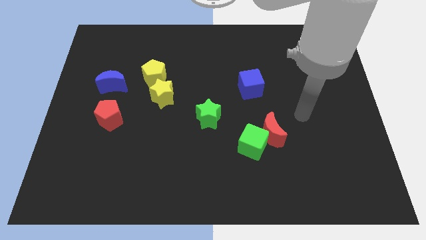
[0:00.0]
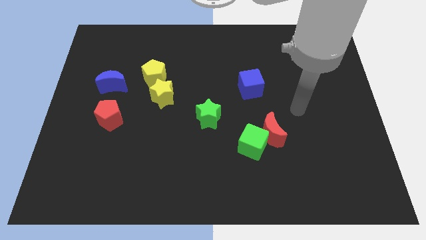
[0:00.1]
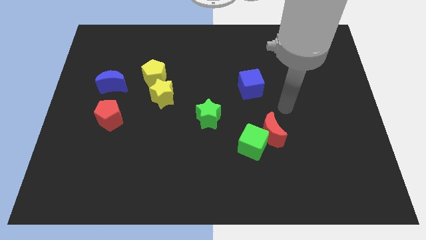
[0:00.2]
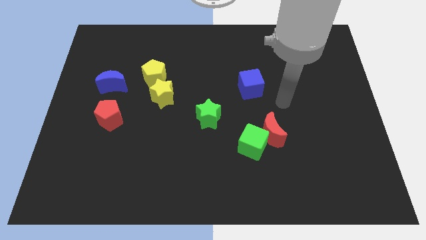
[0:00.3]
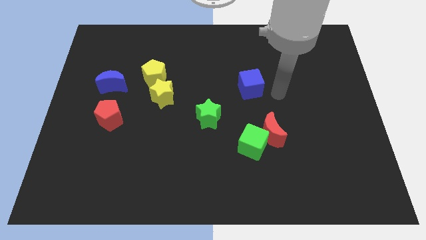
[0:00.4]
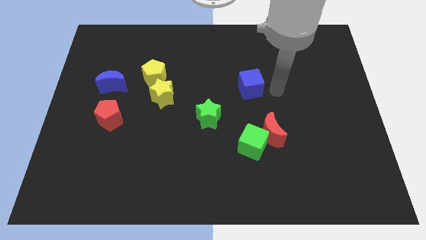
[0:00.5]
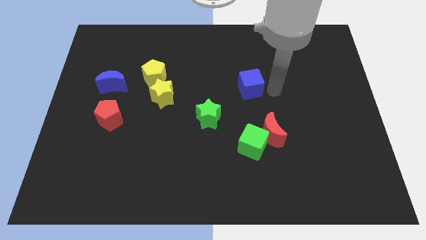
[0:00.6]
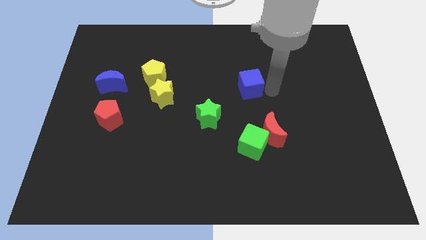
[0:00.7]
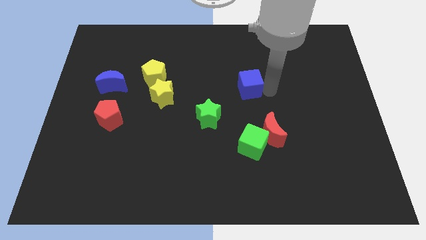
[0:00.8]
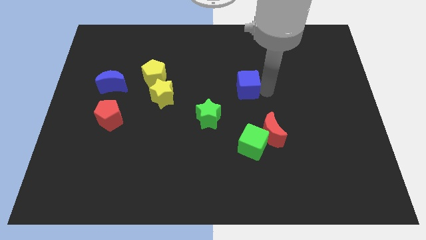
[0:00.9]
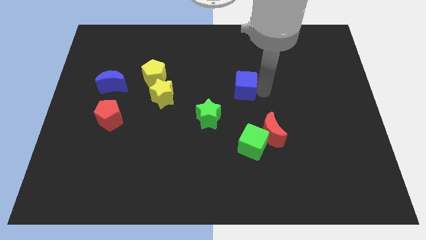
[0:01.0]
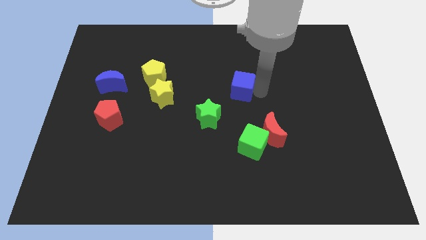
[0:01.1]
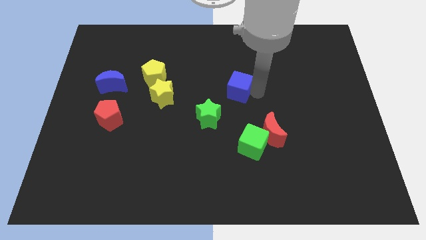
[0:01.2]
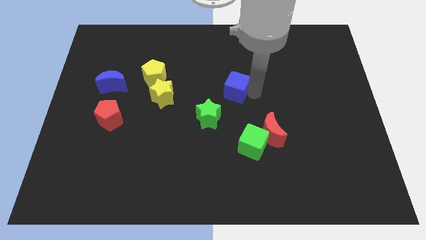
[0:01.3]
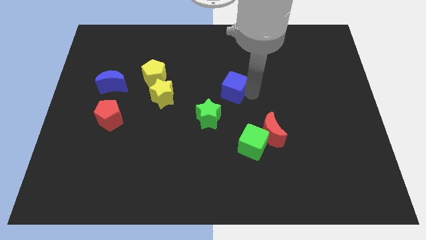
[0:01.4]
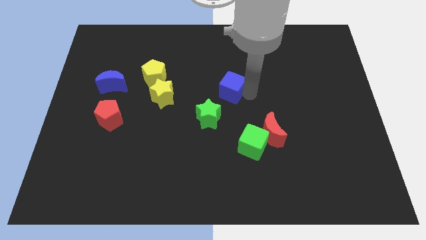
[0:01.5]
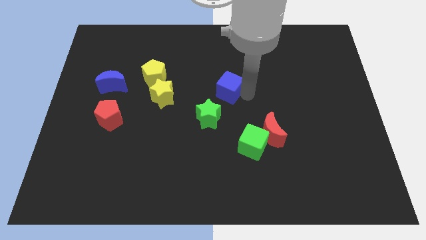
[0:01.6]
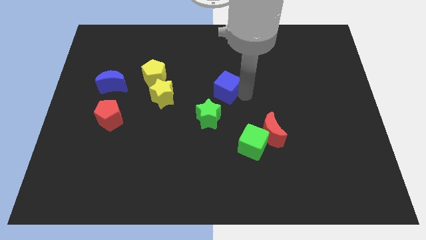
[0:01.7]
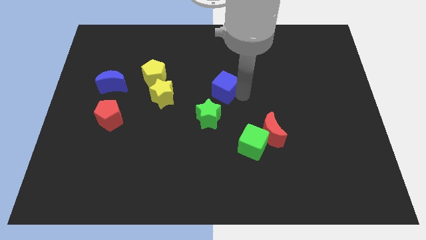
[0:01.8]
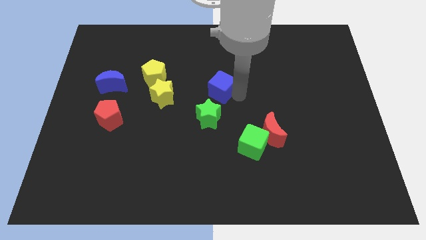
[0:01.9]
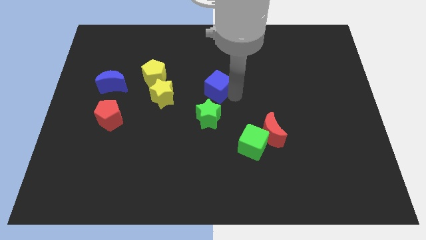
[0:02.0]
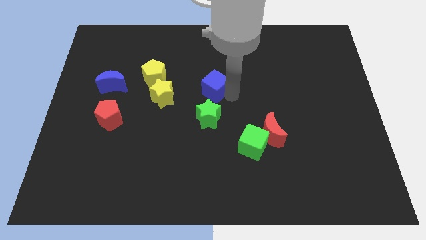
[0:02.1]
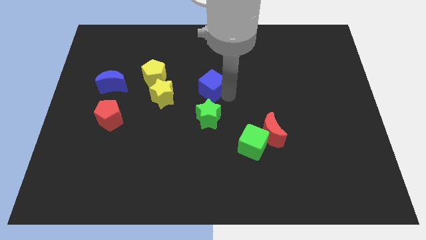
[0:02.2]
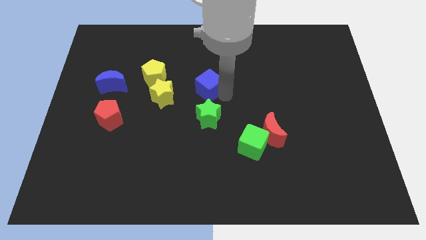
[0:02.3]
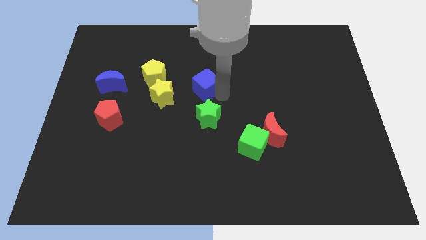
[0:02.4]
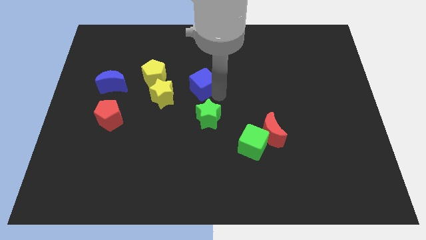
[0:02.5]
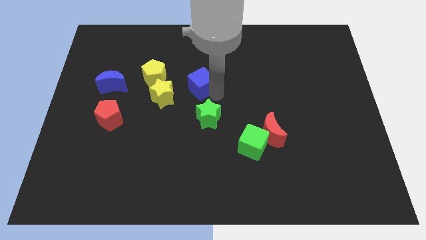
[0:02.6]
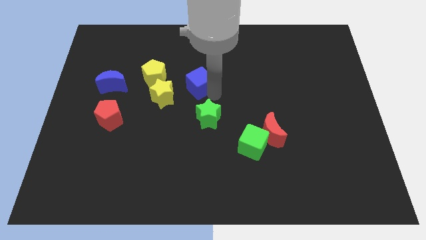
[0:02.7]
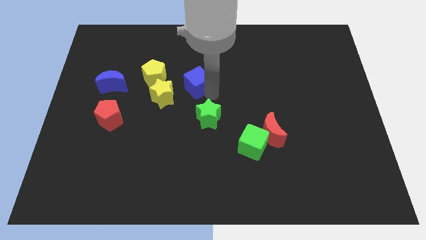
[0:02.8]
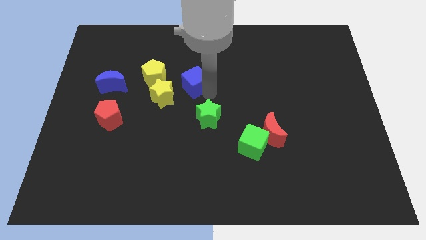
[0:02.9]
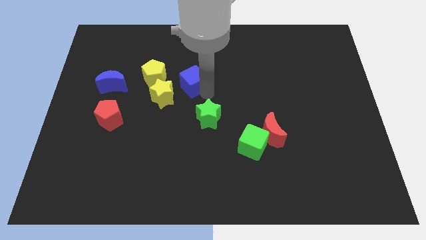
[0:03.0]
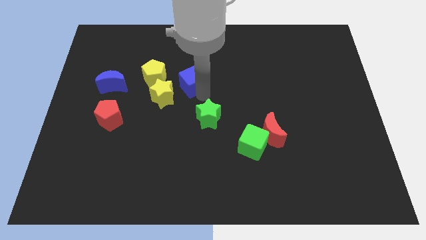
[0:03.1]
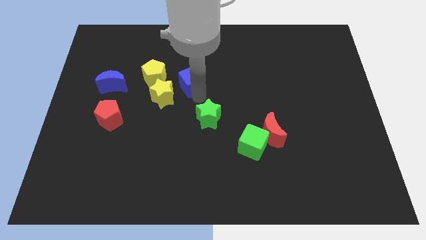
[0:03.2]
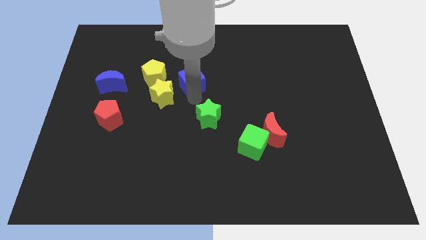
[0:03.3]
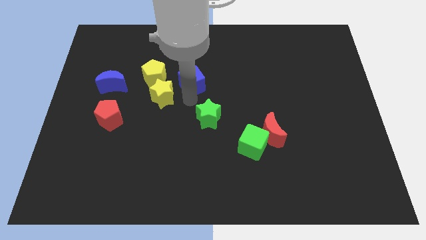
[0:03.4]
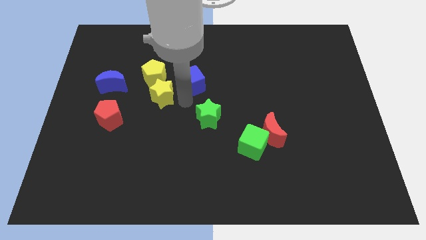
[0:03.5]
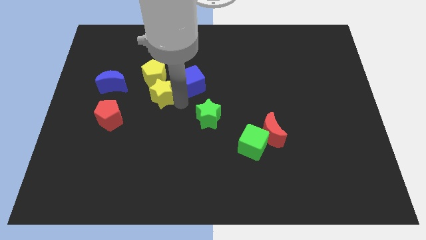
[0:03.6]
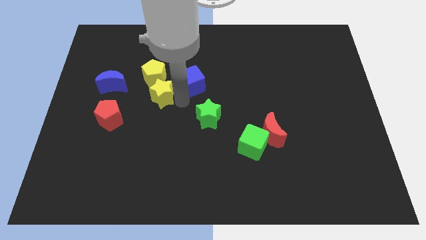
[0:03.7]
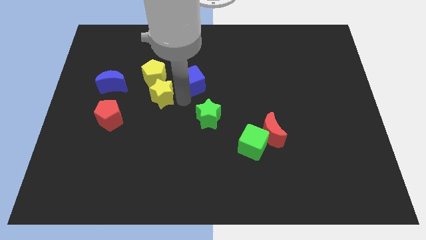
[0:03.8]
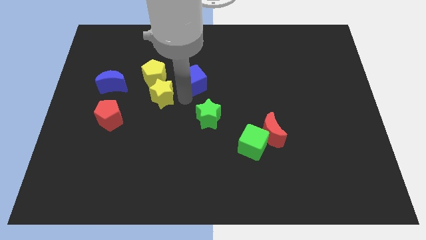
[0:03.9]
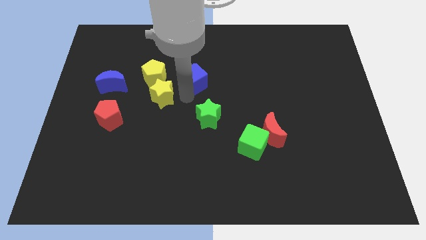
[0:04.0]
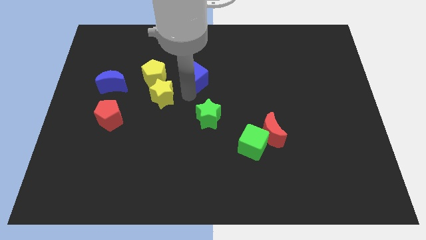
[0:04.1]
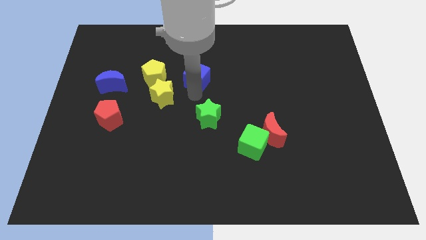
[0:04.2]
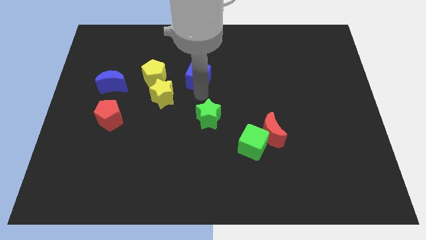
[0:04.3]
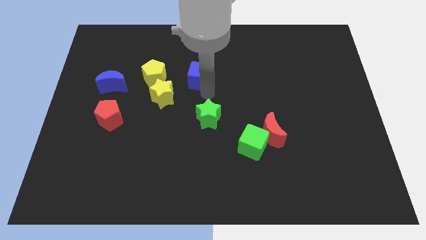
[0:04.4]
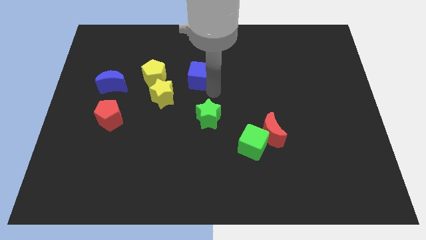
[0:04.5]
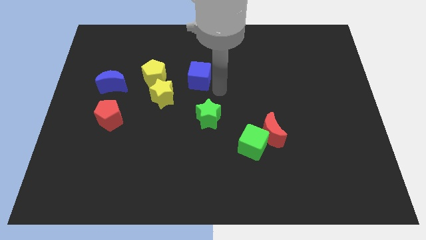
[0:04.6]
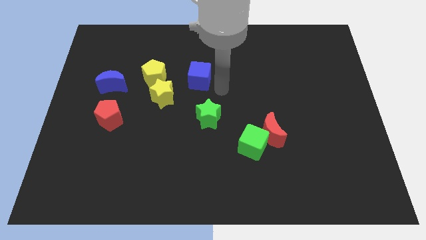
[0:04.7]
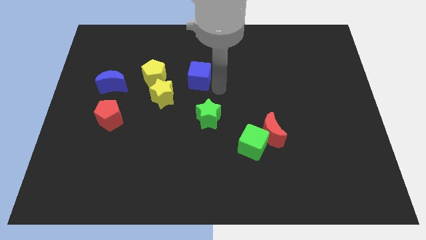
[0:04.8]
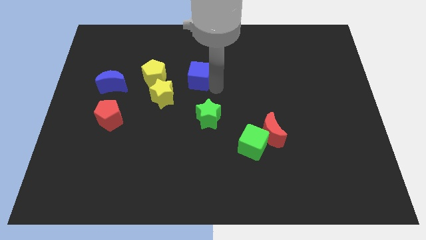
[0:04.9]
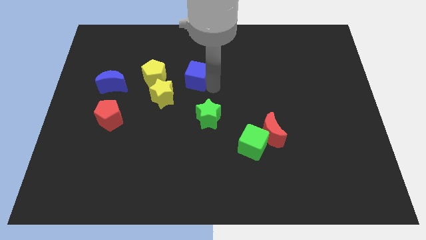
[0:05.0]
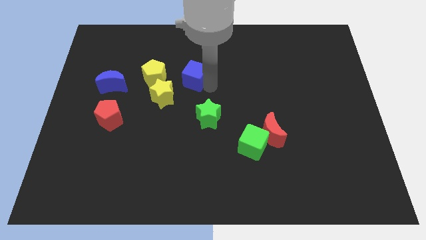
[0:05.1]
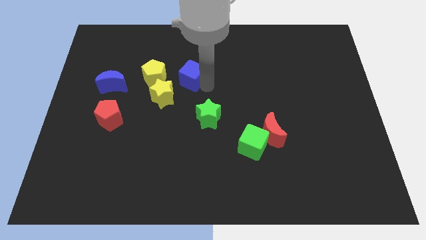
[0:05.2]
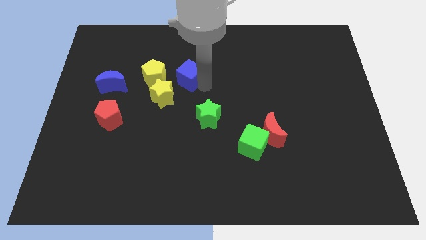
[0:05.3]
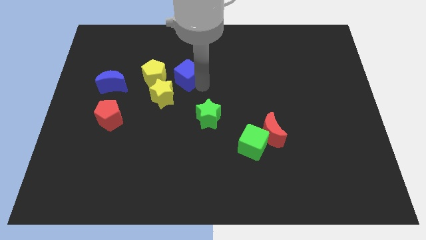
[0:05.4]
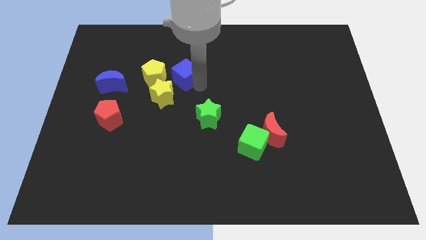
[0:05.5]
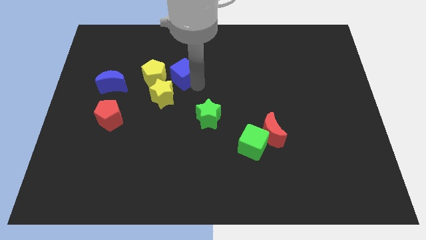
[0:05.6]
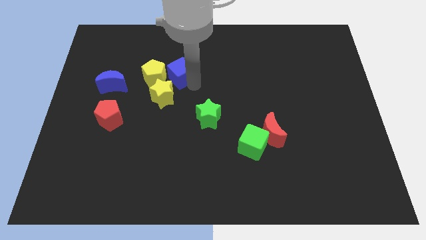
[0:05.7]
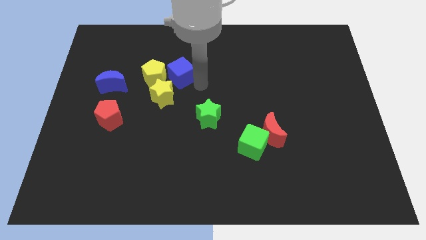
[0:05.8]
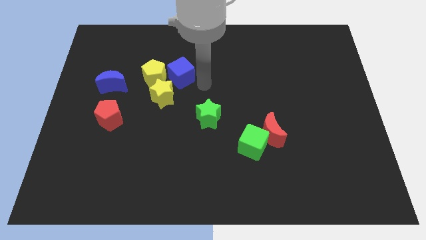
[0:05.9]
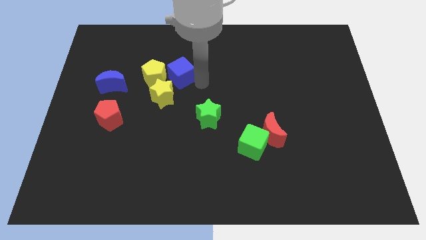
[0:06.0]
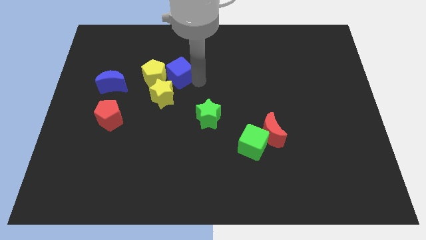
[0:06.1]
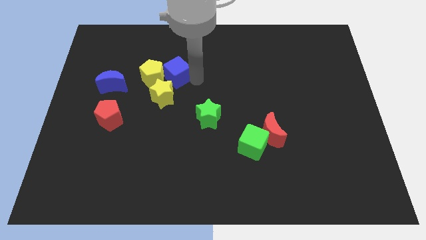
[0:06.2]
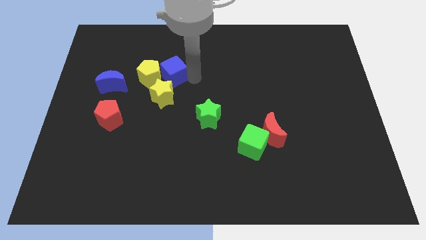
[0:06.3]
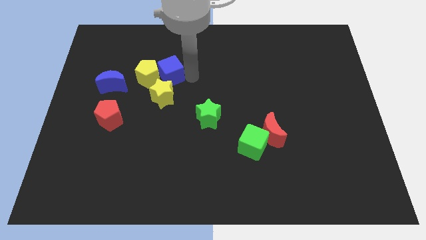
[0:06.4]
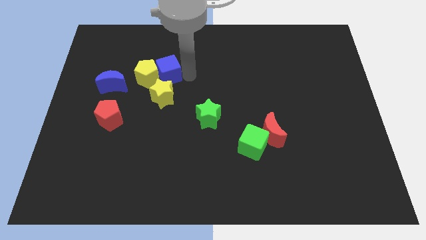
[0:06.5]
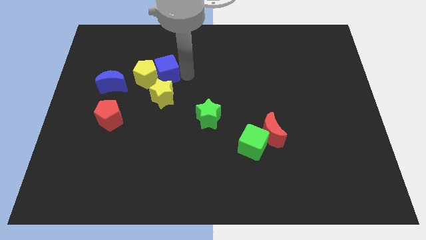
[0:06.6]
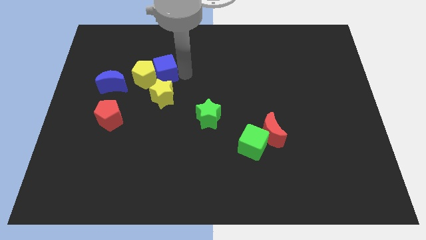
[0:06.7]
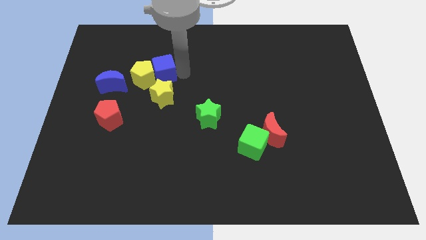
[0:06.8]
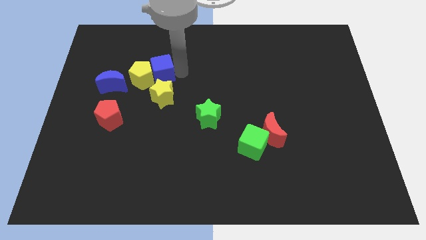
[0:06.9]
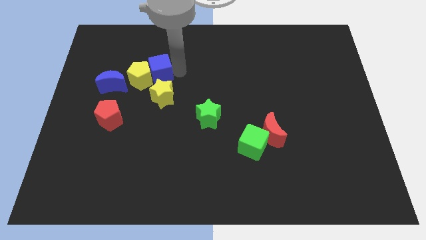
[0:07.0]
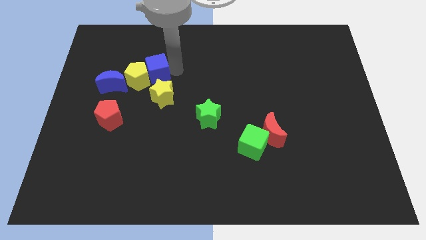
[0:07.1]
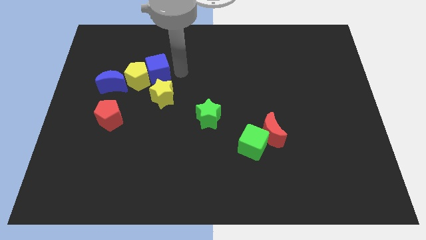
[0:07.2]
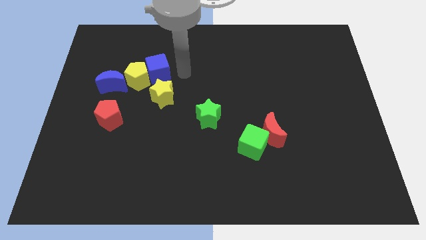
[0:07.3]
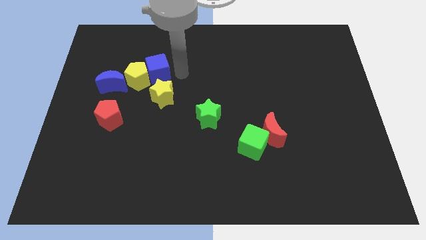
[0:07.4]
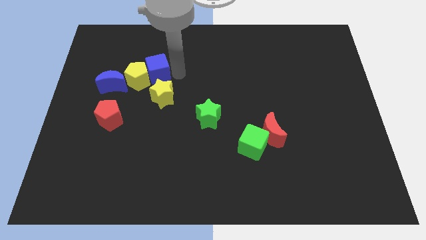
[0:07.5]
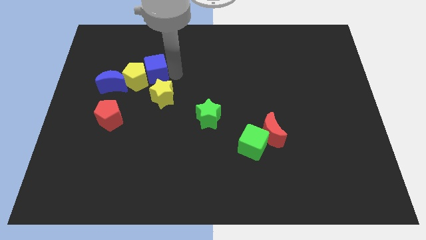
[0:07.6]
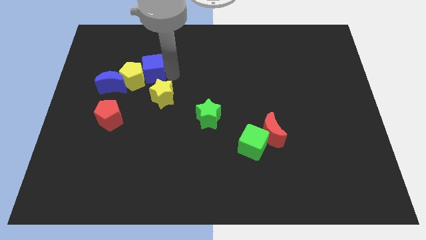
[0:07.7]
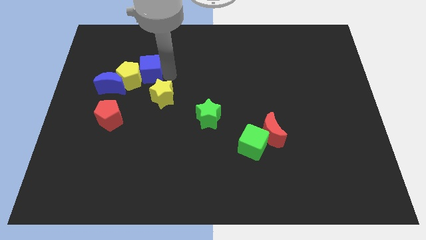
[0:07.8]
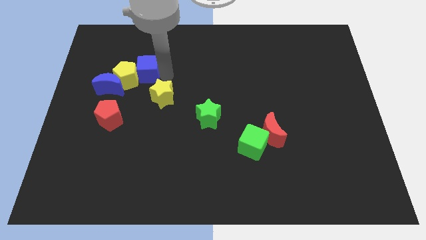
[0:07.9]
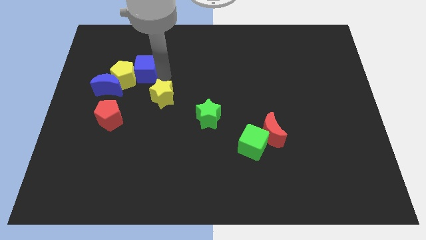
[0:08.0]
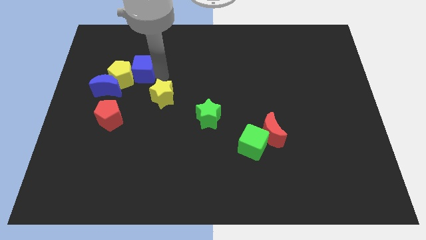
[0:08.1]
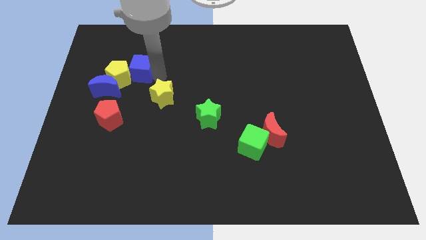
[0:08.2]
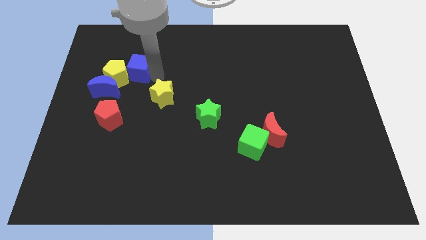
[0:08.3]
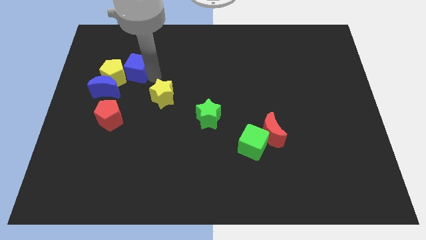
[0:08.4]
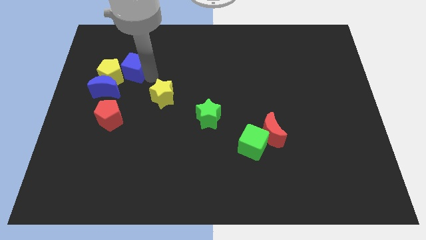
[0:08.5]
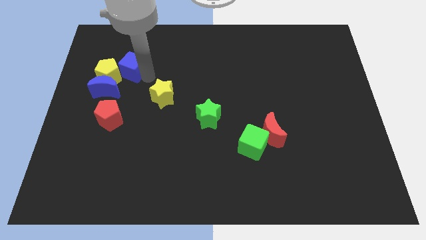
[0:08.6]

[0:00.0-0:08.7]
slide the blue cube to the top of the red pentagon
